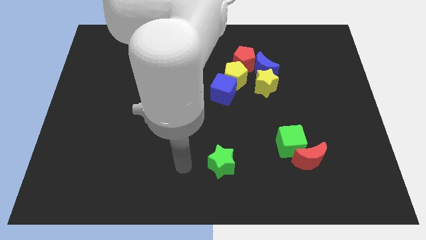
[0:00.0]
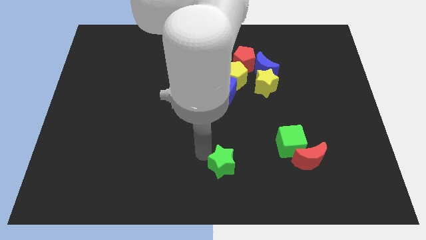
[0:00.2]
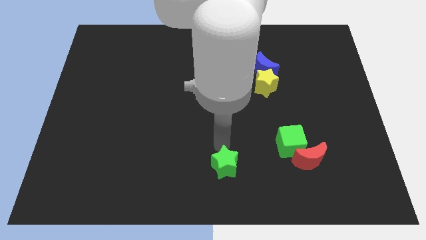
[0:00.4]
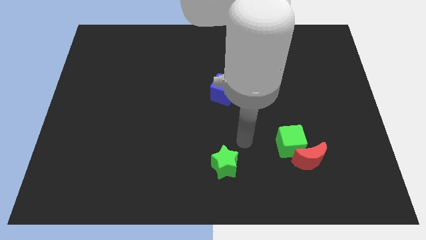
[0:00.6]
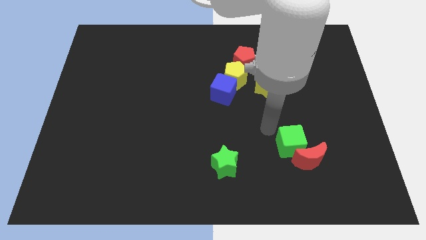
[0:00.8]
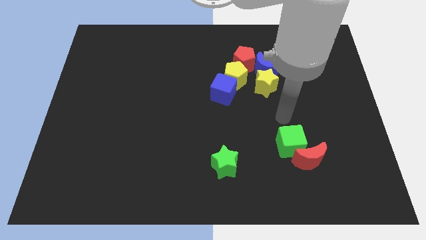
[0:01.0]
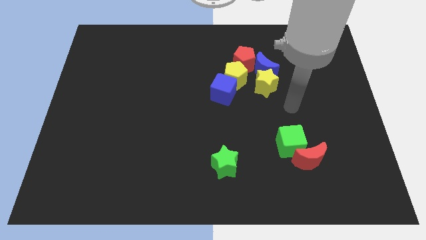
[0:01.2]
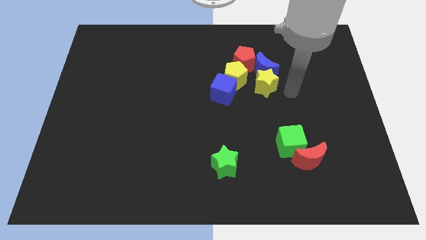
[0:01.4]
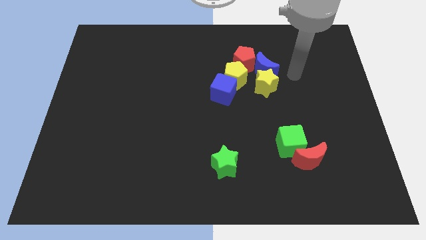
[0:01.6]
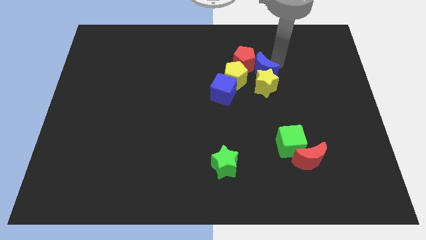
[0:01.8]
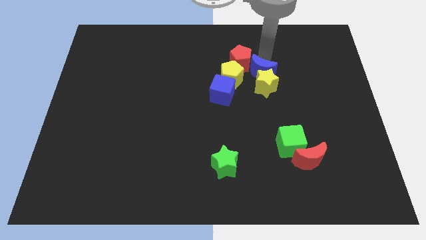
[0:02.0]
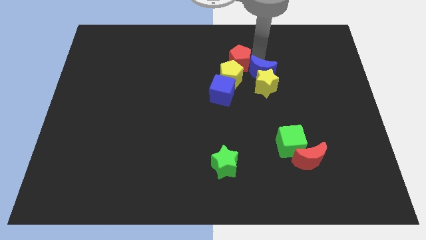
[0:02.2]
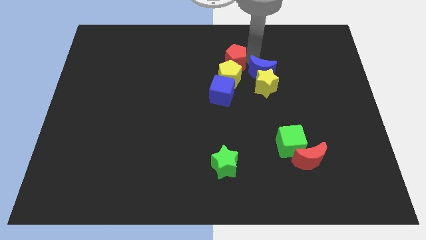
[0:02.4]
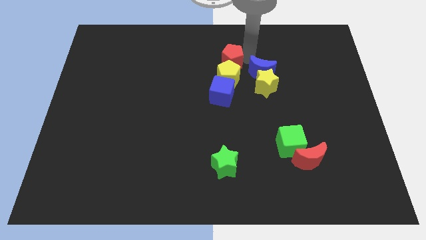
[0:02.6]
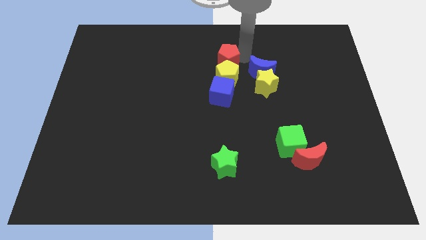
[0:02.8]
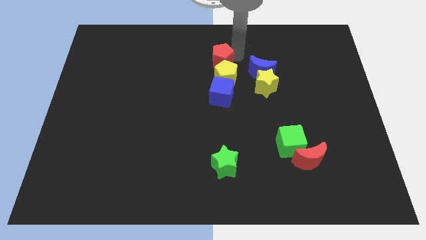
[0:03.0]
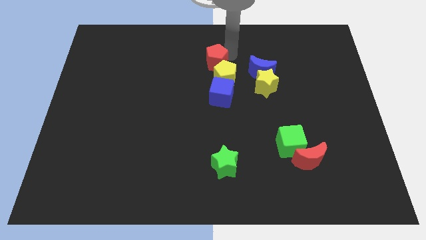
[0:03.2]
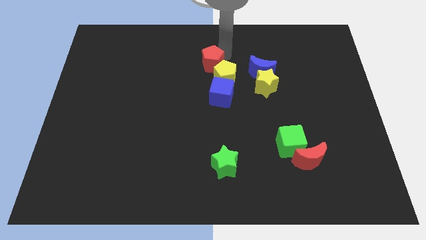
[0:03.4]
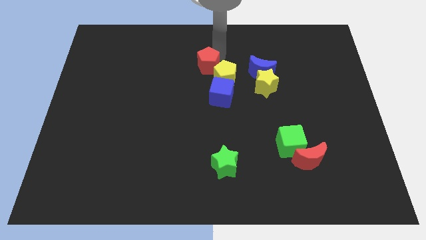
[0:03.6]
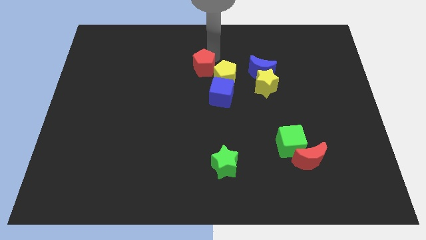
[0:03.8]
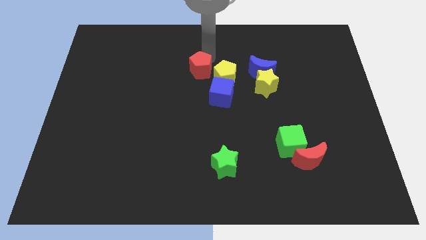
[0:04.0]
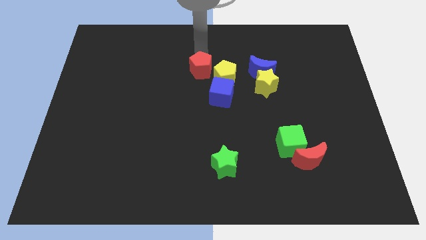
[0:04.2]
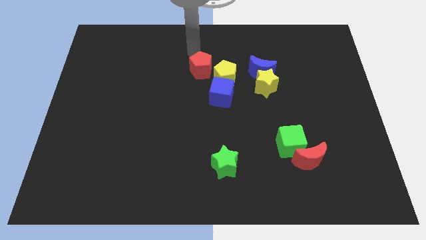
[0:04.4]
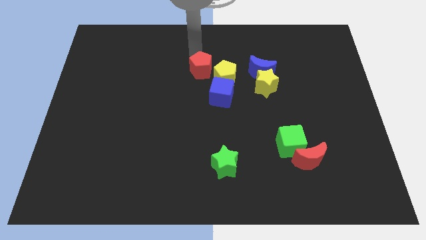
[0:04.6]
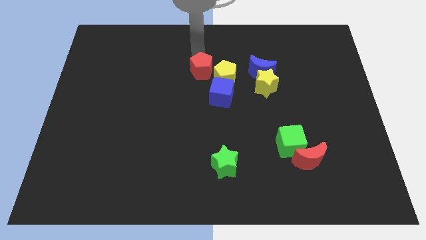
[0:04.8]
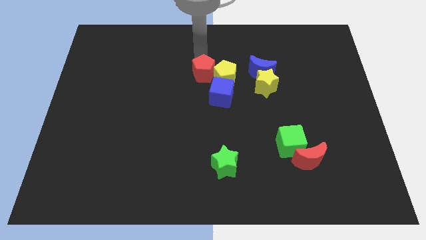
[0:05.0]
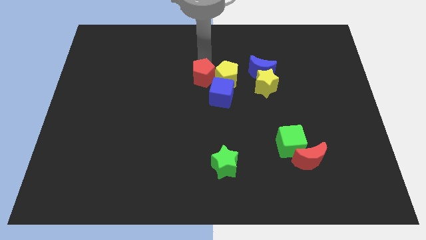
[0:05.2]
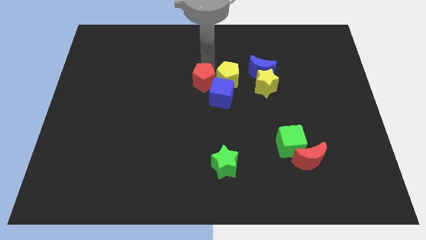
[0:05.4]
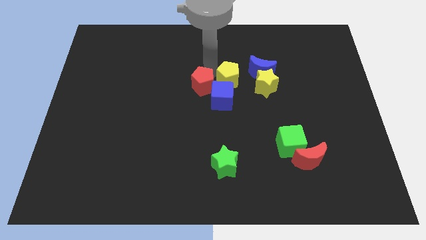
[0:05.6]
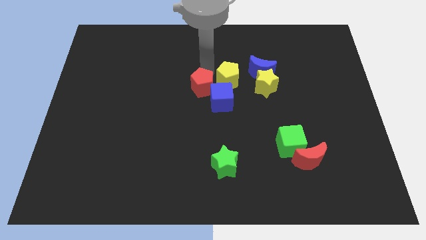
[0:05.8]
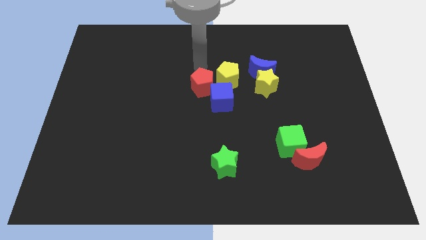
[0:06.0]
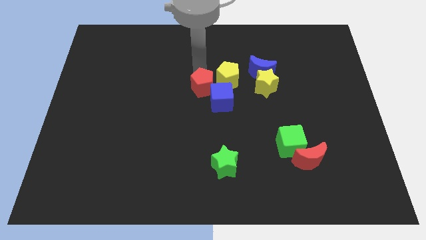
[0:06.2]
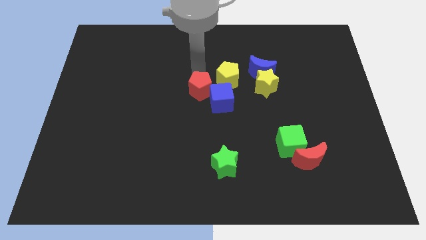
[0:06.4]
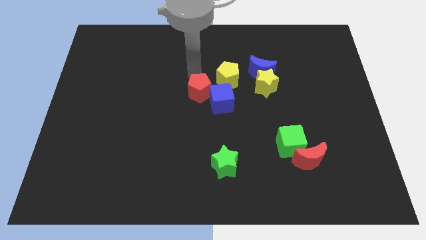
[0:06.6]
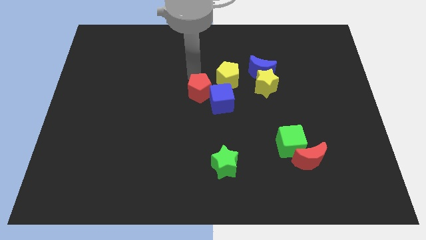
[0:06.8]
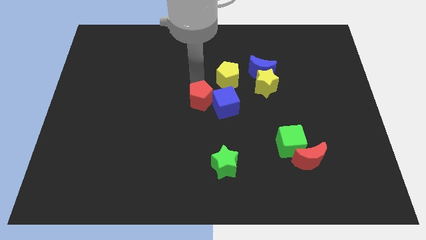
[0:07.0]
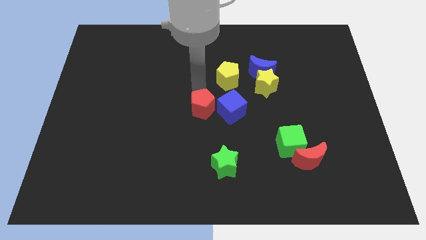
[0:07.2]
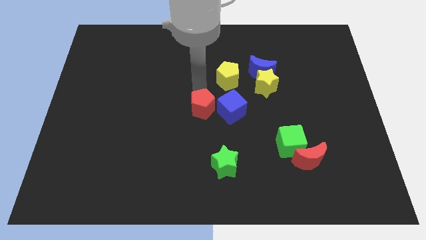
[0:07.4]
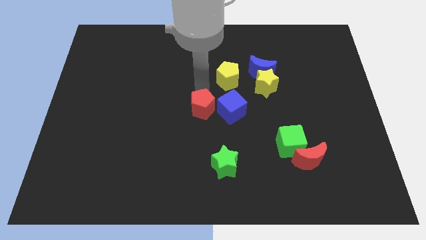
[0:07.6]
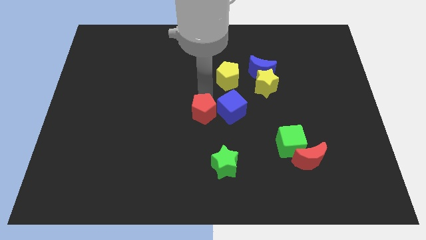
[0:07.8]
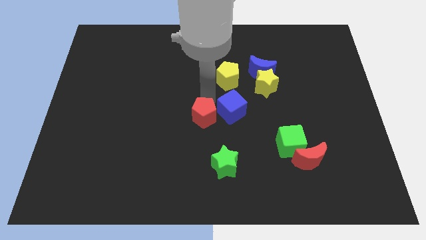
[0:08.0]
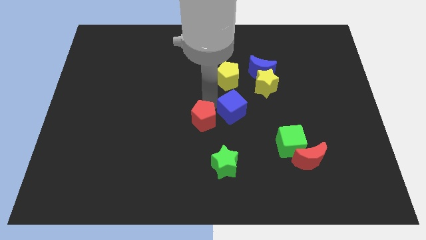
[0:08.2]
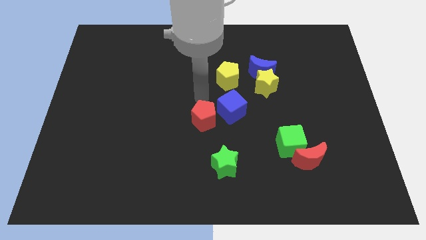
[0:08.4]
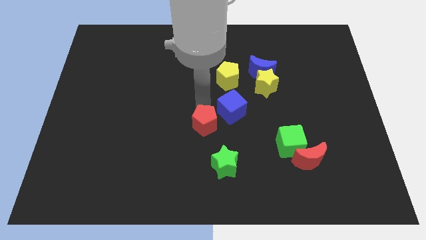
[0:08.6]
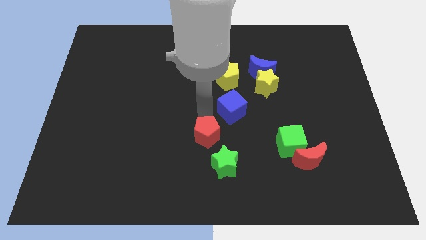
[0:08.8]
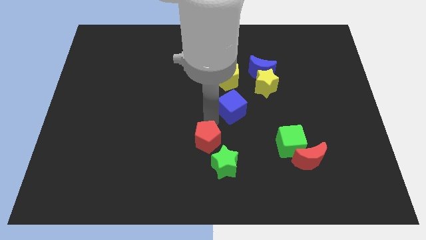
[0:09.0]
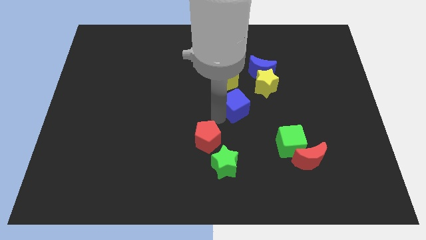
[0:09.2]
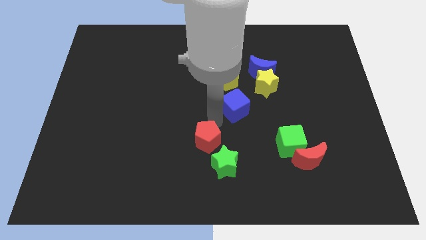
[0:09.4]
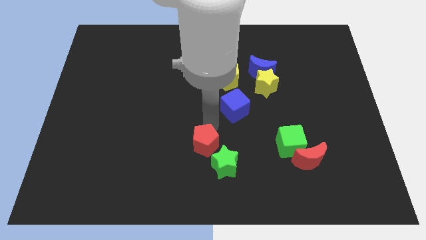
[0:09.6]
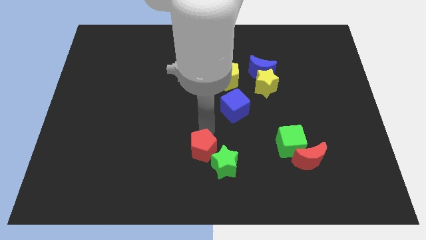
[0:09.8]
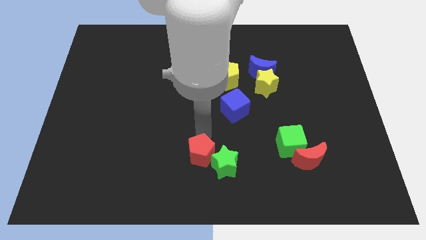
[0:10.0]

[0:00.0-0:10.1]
slide the red pentagon to the bottom side

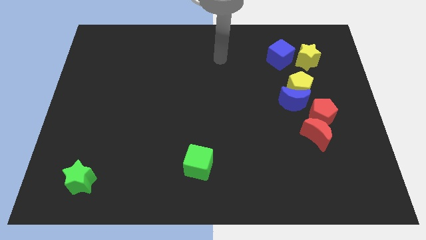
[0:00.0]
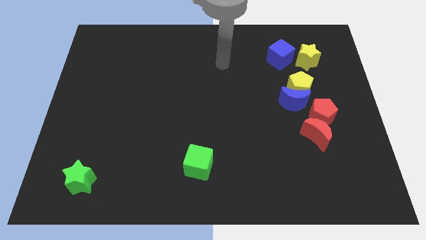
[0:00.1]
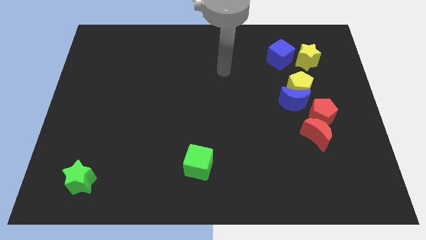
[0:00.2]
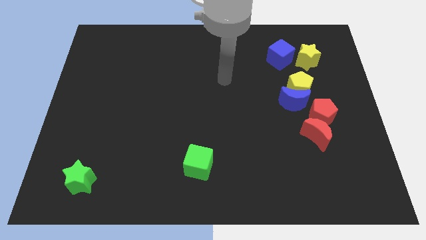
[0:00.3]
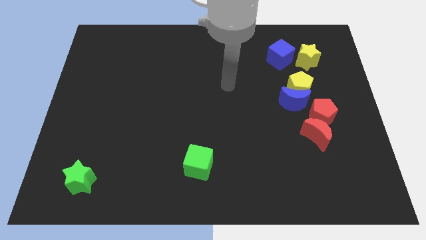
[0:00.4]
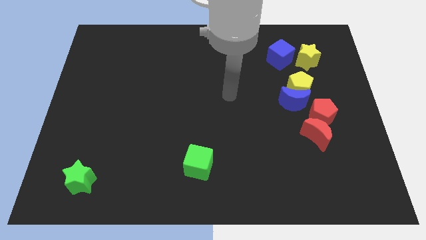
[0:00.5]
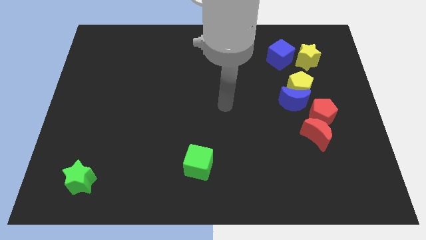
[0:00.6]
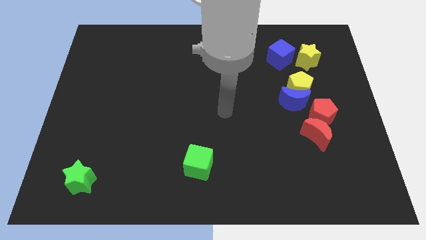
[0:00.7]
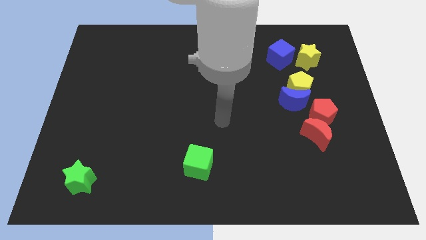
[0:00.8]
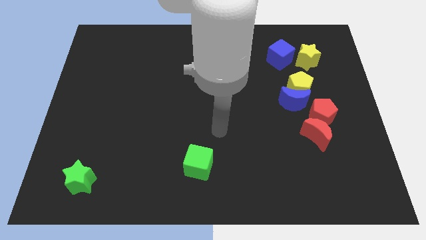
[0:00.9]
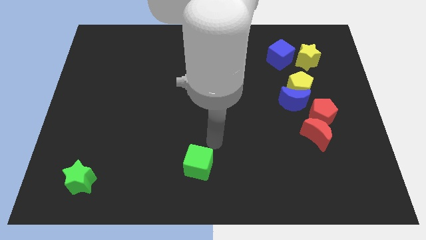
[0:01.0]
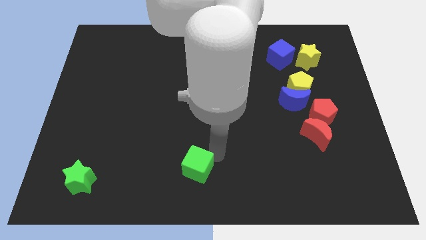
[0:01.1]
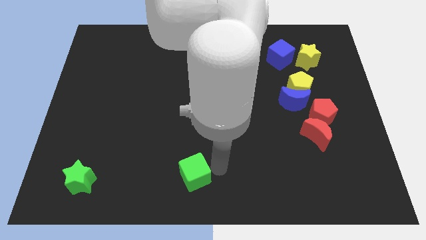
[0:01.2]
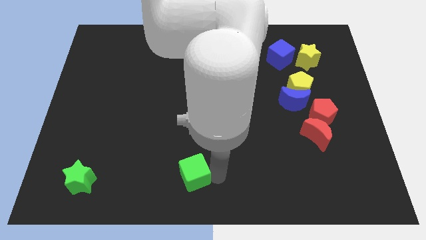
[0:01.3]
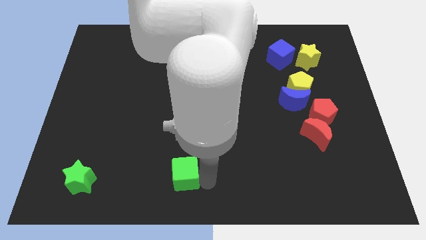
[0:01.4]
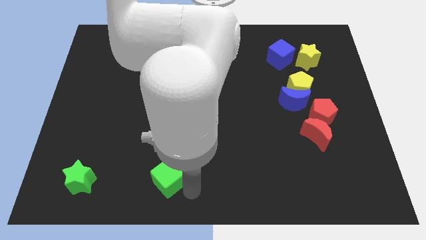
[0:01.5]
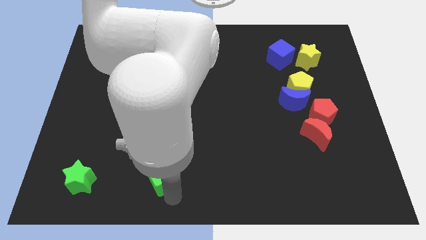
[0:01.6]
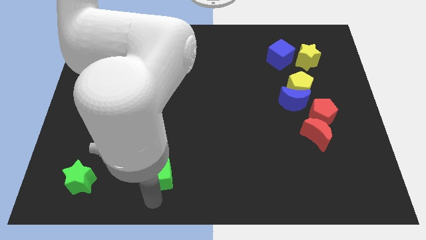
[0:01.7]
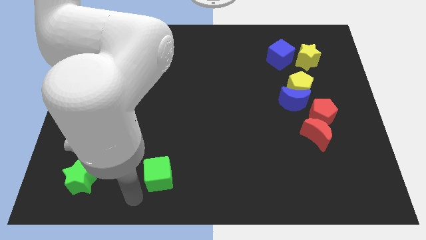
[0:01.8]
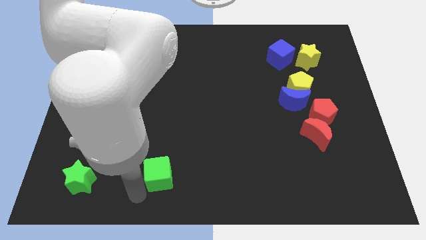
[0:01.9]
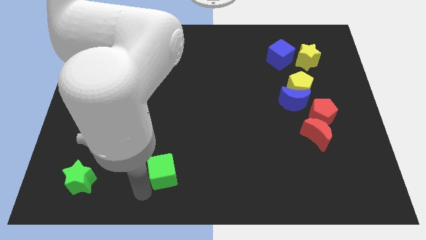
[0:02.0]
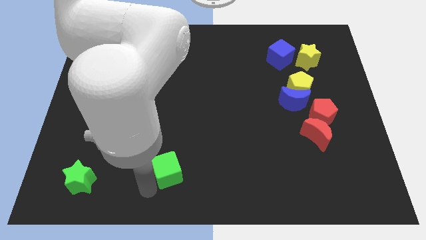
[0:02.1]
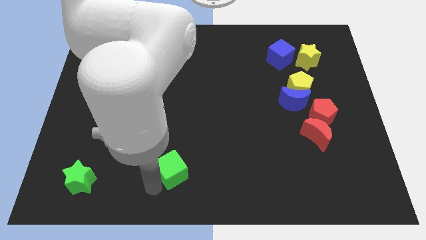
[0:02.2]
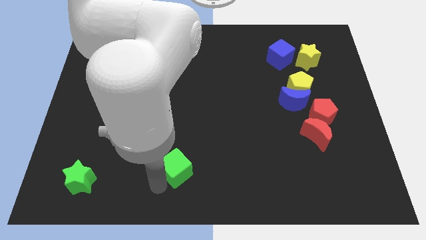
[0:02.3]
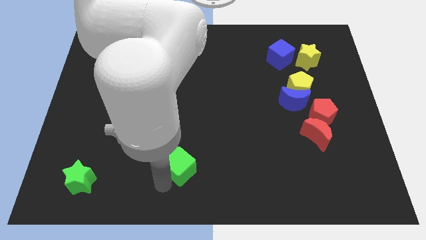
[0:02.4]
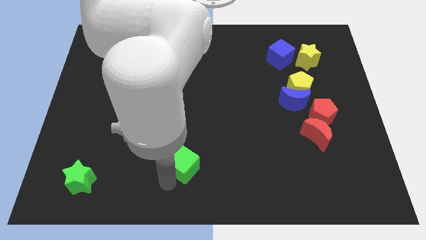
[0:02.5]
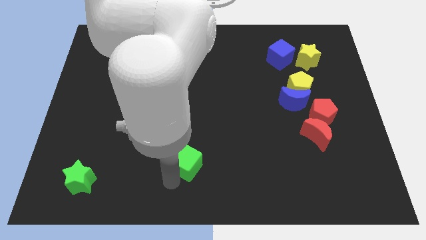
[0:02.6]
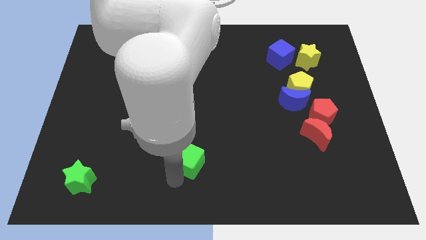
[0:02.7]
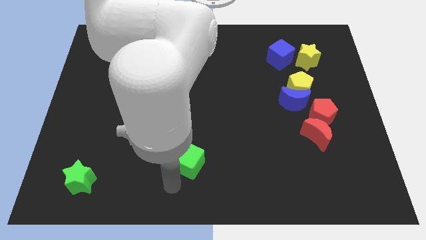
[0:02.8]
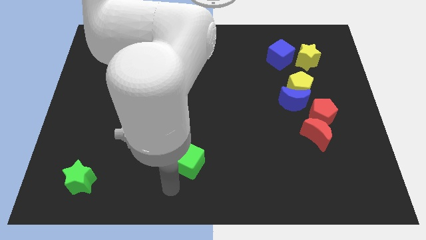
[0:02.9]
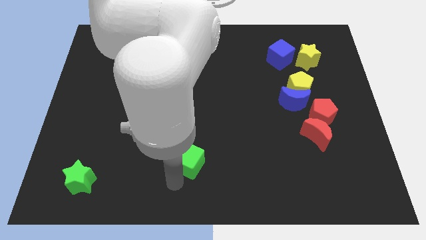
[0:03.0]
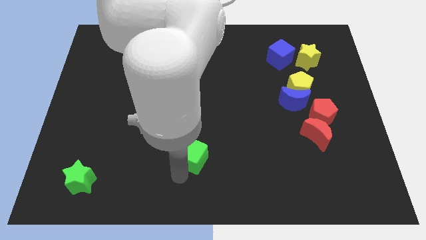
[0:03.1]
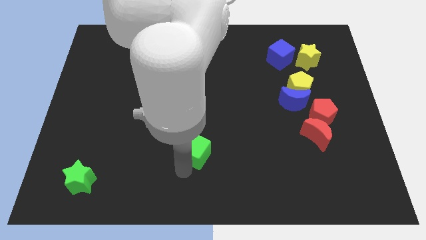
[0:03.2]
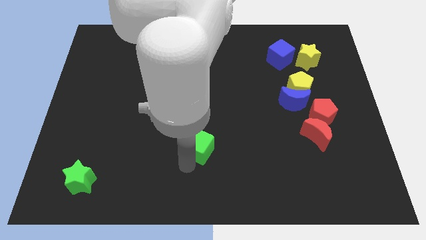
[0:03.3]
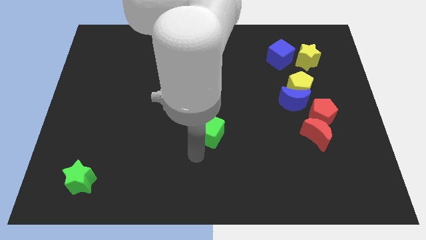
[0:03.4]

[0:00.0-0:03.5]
push the green cube to the middle
